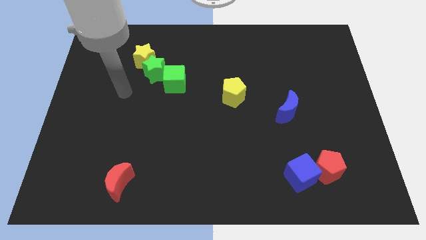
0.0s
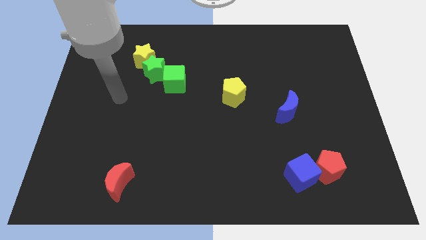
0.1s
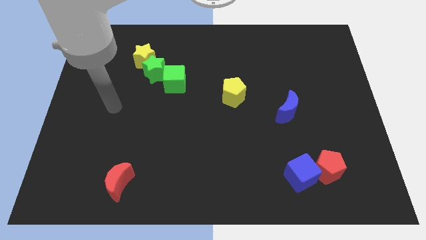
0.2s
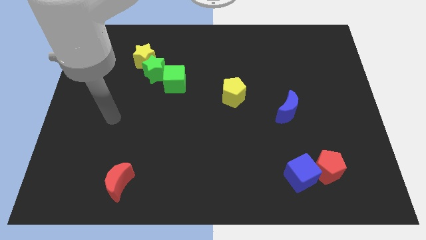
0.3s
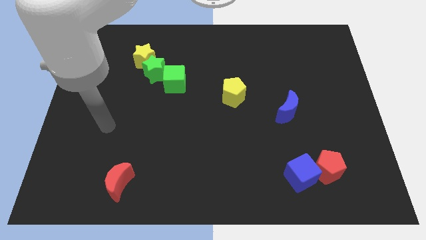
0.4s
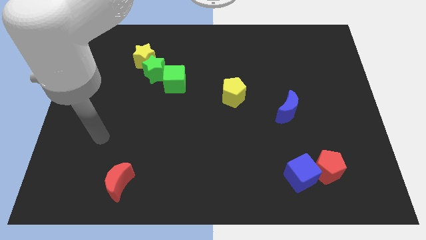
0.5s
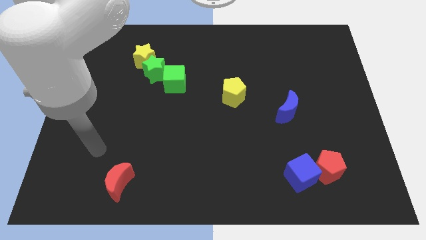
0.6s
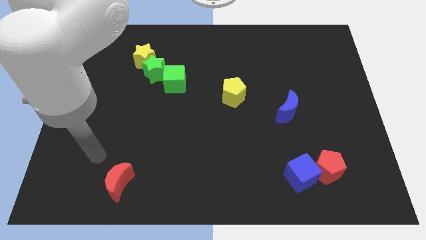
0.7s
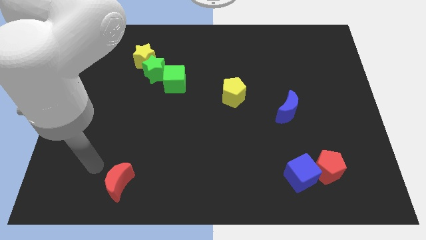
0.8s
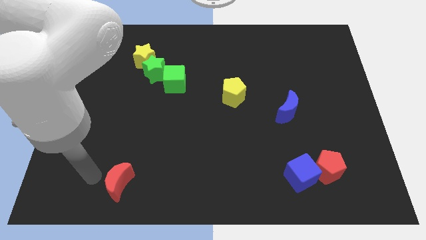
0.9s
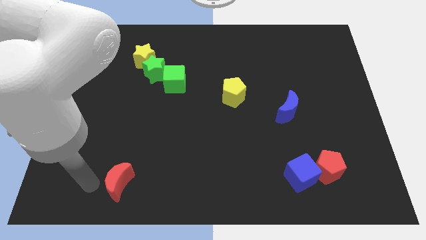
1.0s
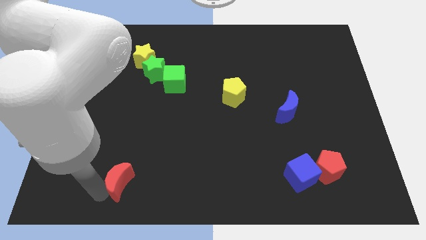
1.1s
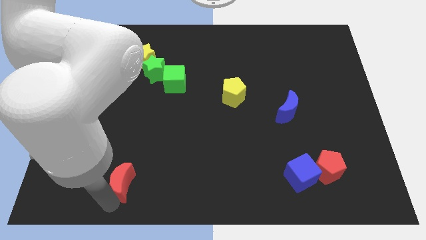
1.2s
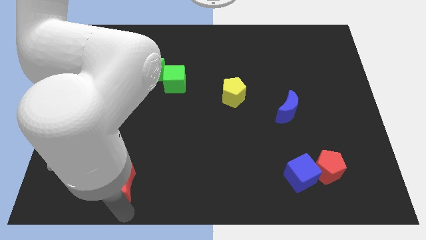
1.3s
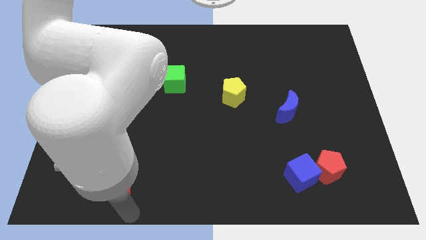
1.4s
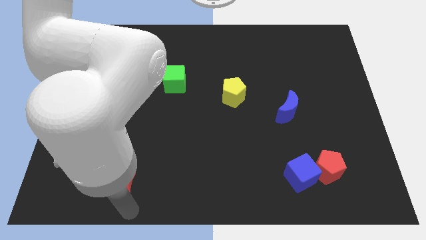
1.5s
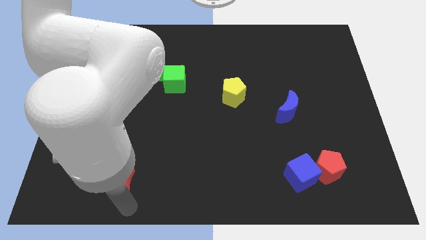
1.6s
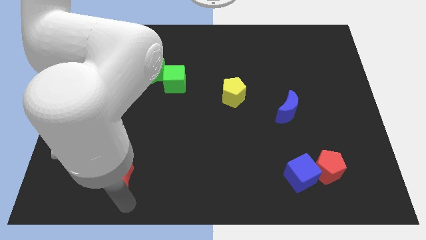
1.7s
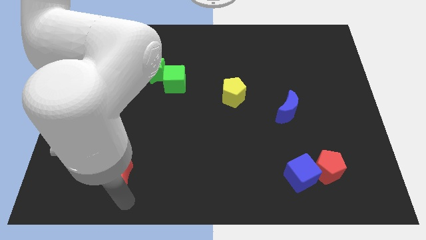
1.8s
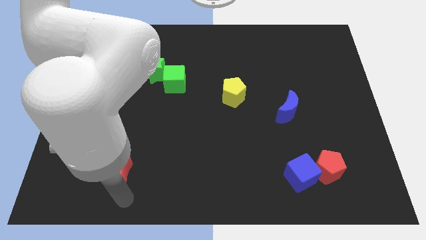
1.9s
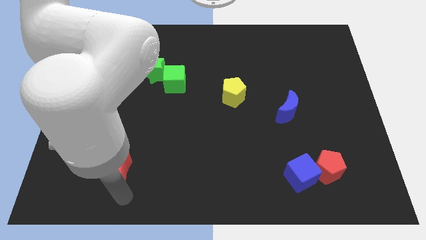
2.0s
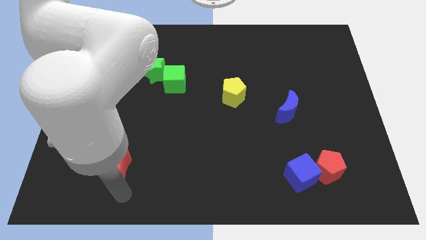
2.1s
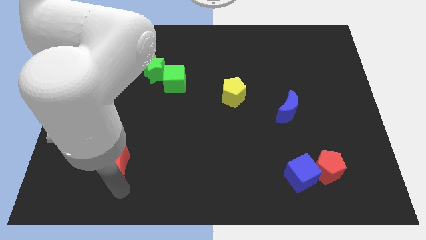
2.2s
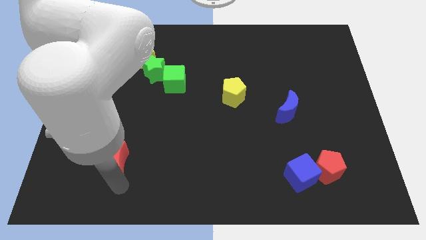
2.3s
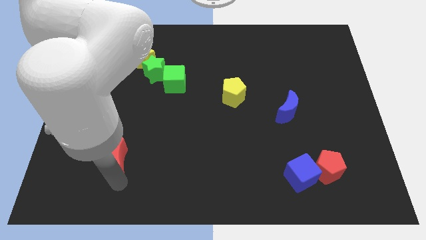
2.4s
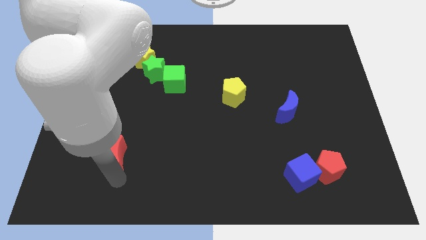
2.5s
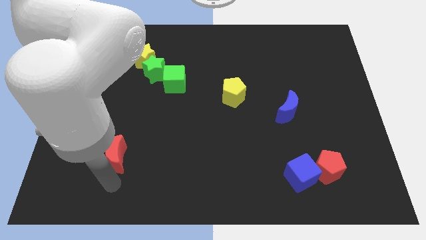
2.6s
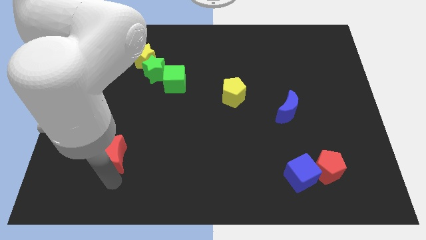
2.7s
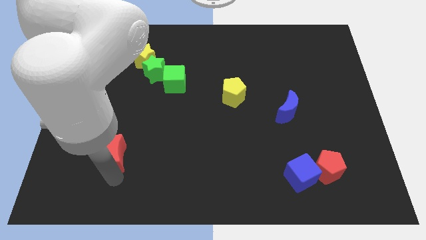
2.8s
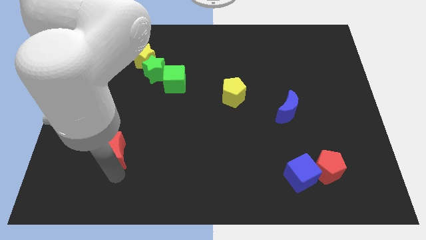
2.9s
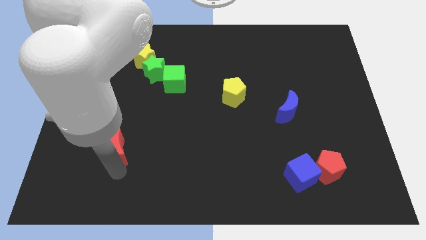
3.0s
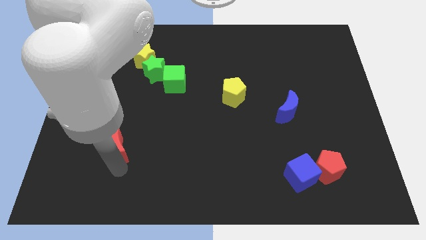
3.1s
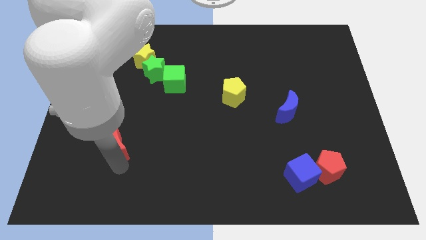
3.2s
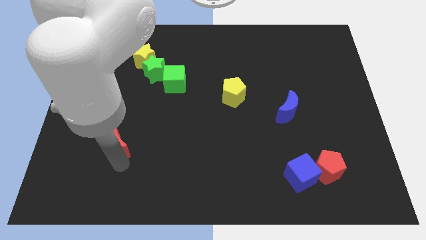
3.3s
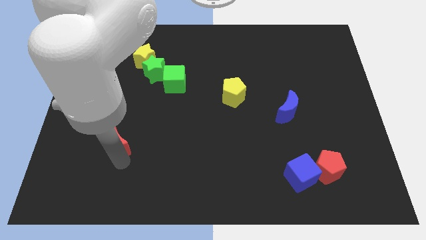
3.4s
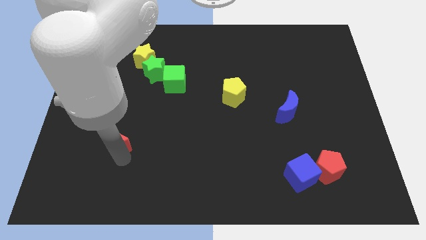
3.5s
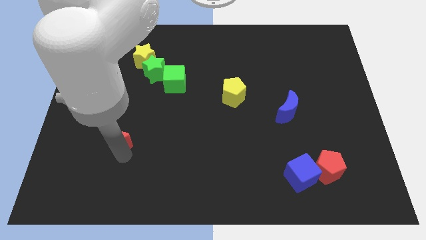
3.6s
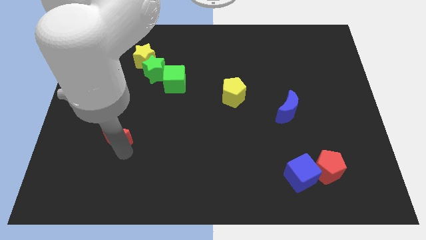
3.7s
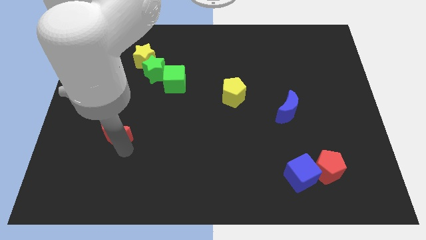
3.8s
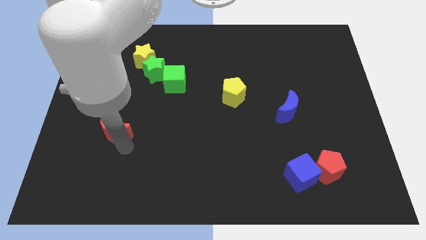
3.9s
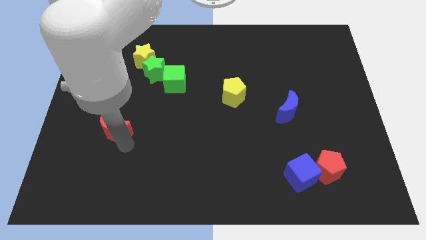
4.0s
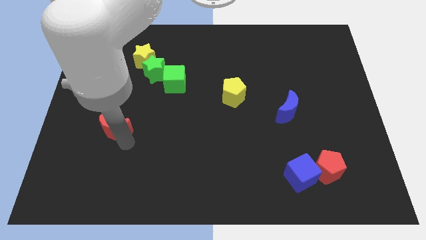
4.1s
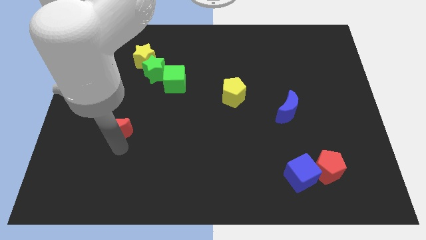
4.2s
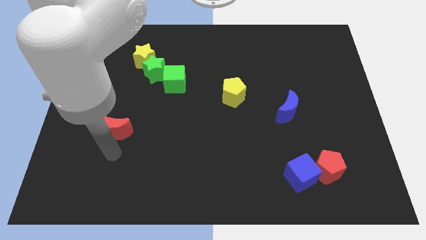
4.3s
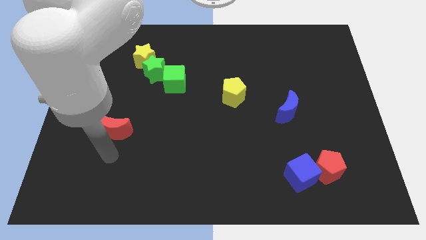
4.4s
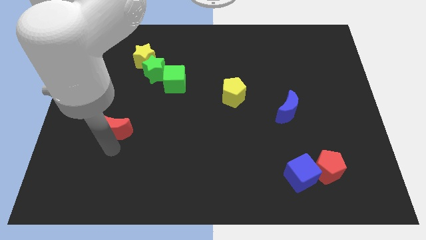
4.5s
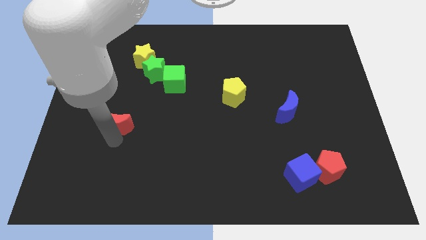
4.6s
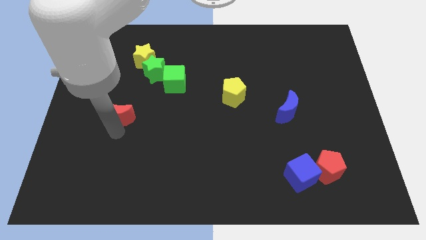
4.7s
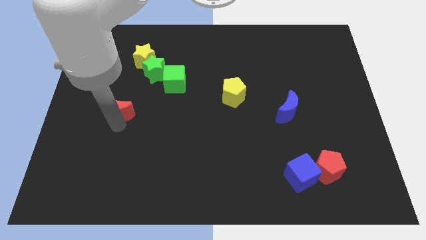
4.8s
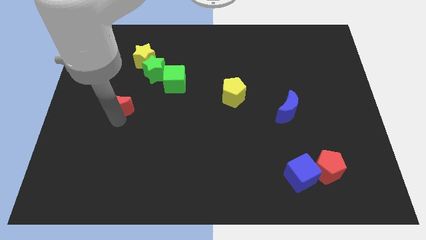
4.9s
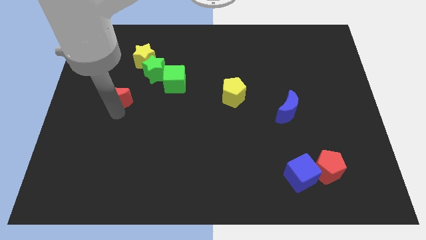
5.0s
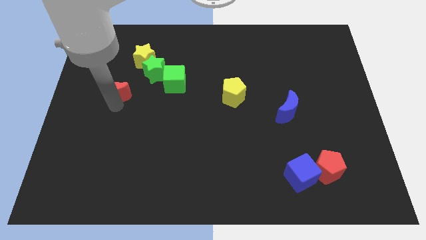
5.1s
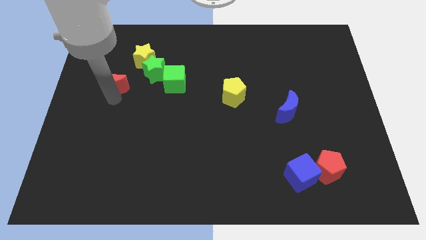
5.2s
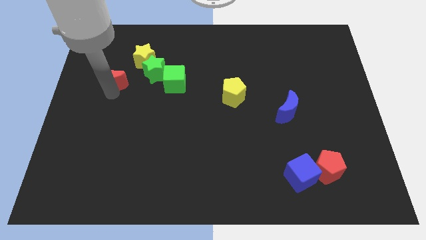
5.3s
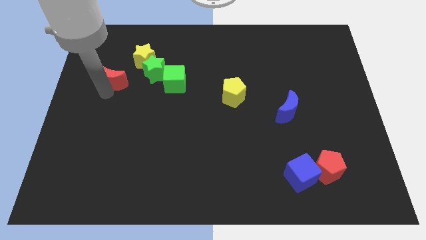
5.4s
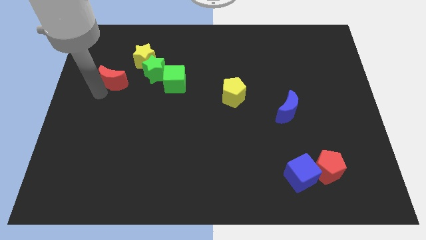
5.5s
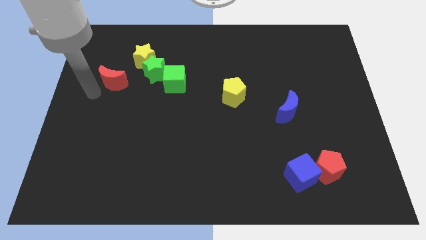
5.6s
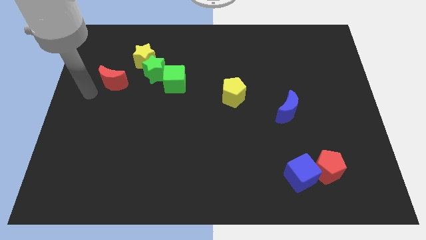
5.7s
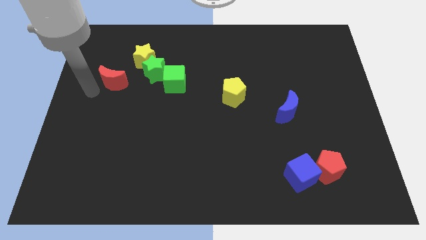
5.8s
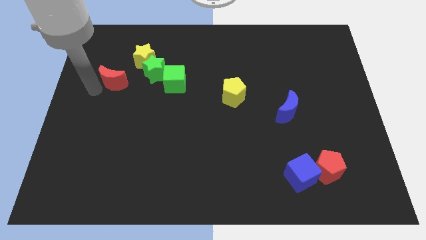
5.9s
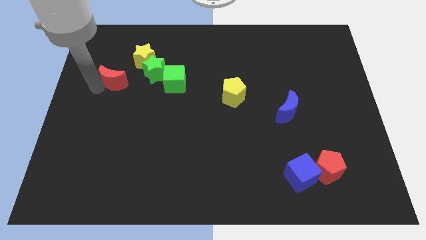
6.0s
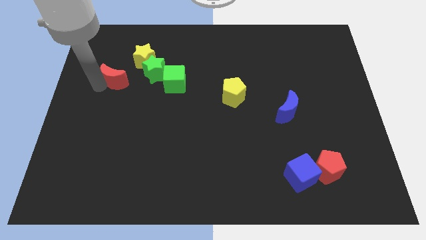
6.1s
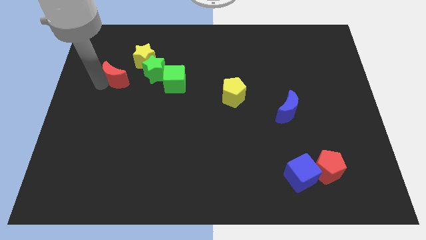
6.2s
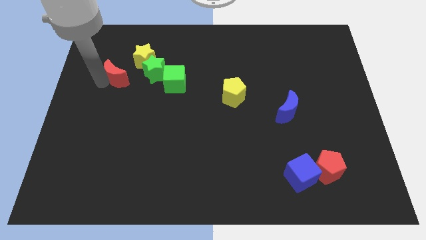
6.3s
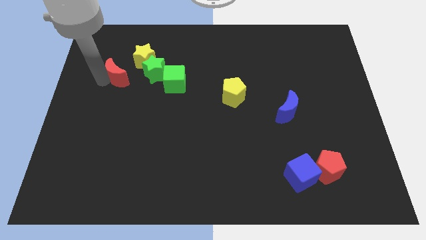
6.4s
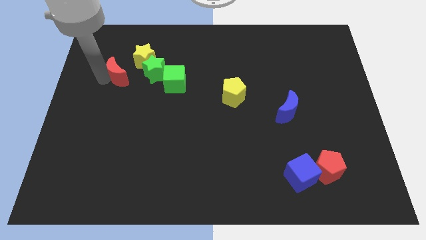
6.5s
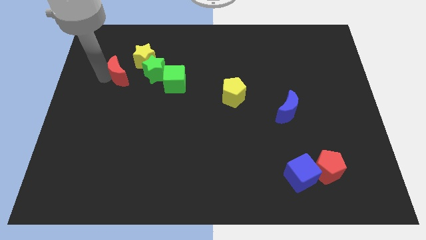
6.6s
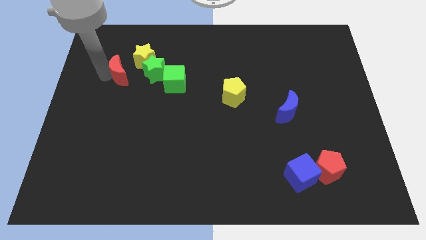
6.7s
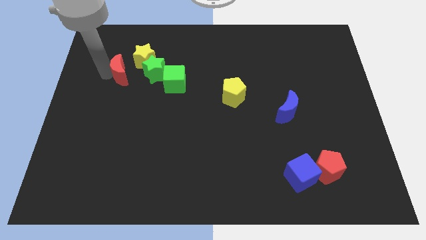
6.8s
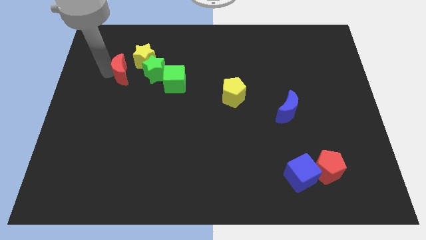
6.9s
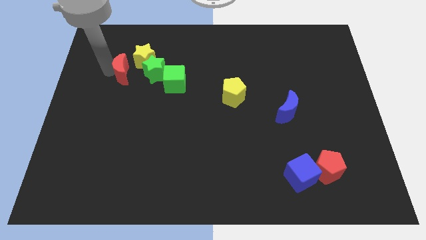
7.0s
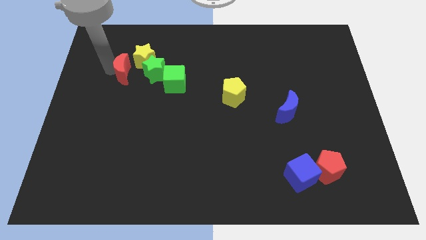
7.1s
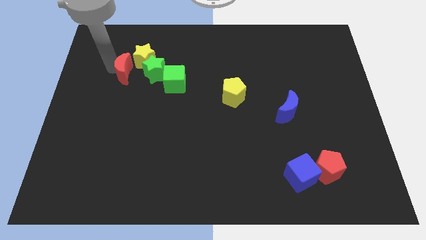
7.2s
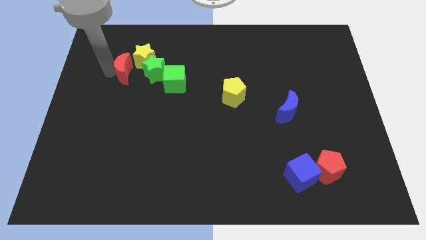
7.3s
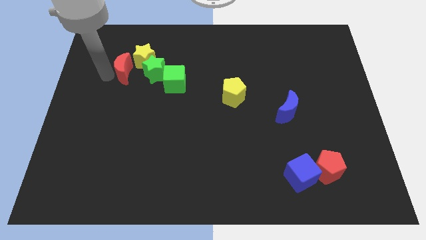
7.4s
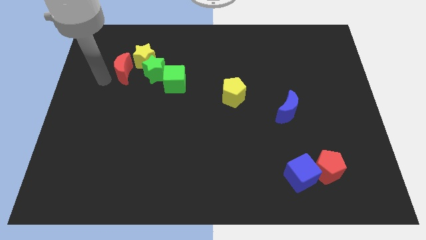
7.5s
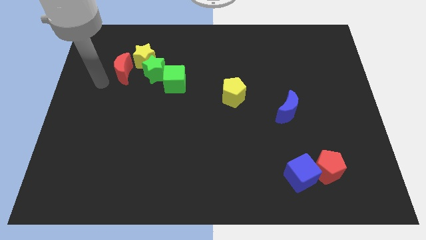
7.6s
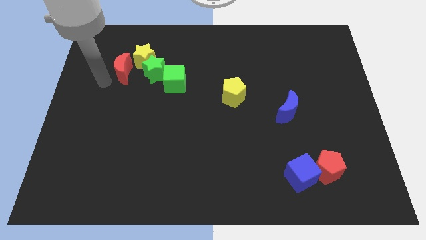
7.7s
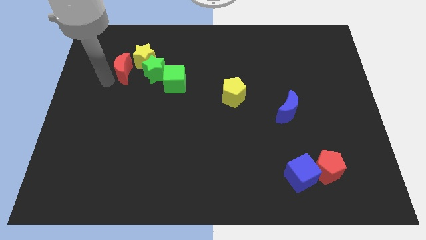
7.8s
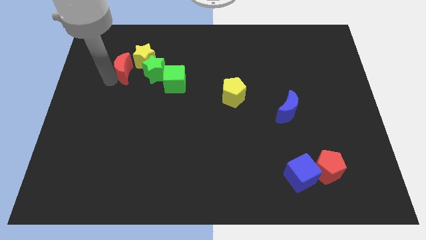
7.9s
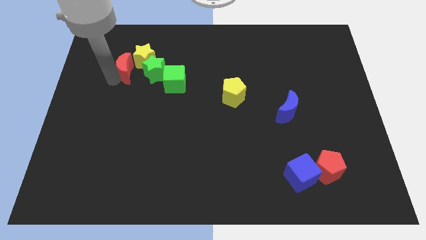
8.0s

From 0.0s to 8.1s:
put the red moon next to the yellow star
